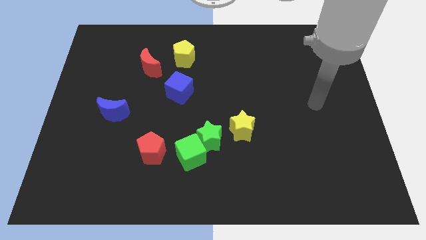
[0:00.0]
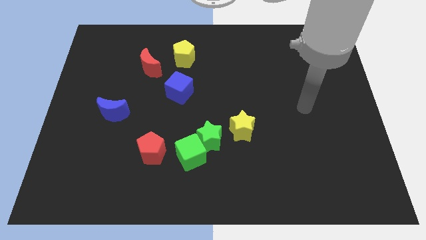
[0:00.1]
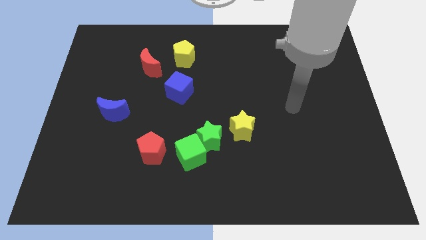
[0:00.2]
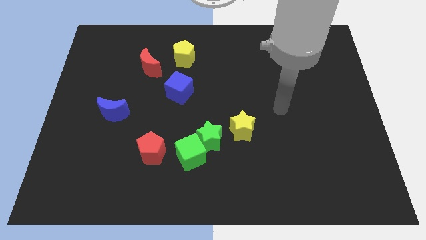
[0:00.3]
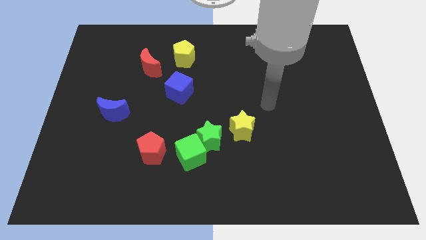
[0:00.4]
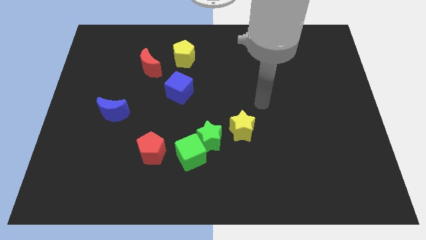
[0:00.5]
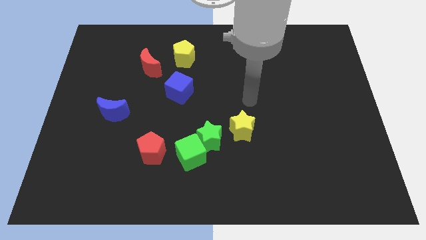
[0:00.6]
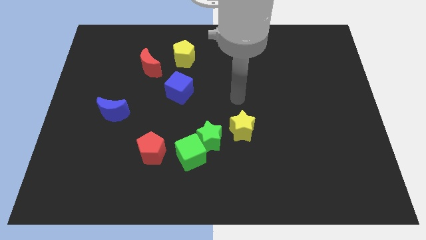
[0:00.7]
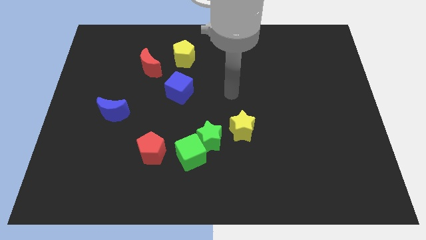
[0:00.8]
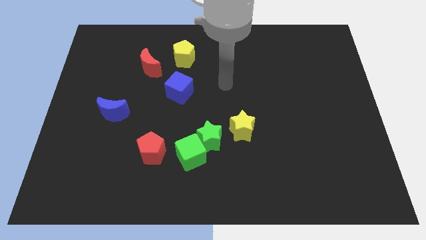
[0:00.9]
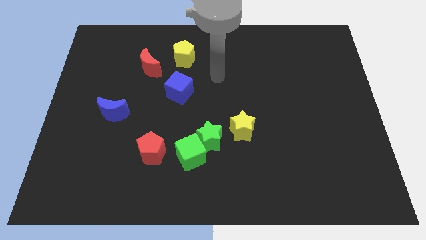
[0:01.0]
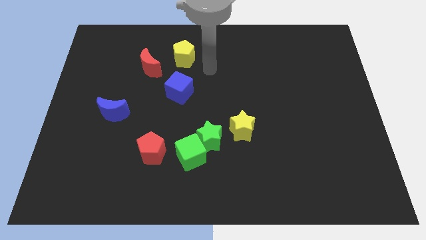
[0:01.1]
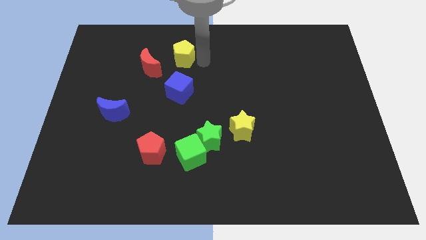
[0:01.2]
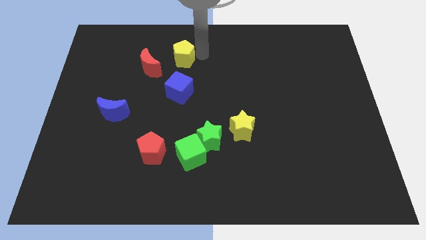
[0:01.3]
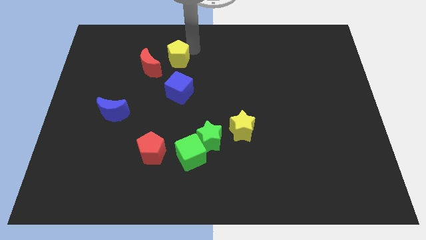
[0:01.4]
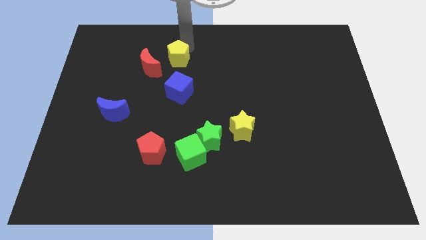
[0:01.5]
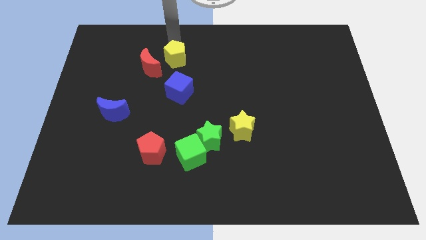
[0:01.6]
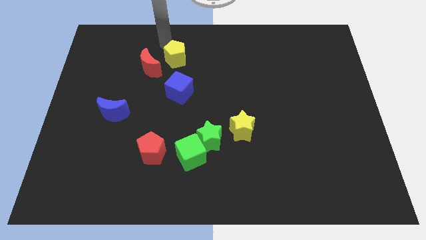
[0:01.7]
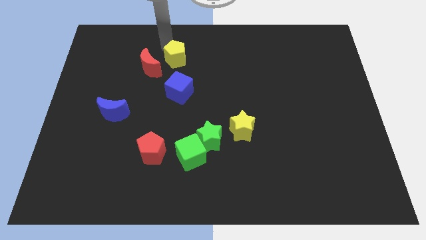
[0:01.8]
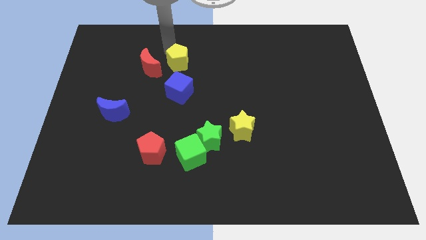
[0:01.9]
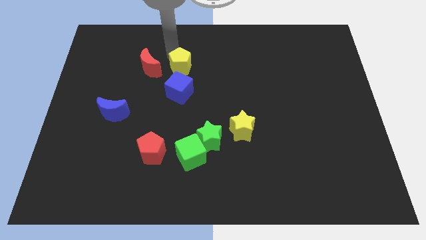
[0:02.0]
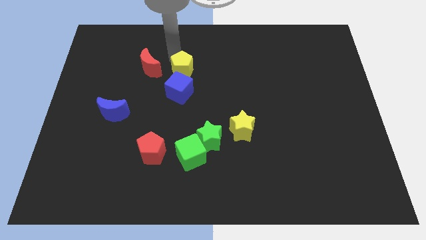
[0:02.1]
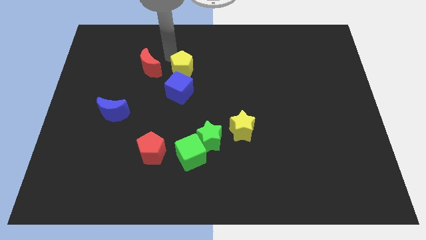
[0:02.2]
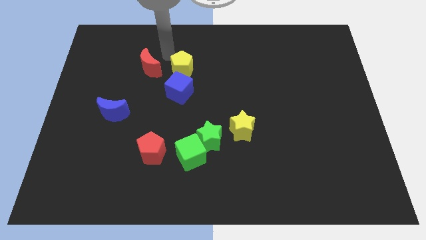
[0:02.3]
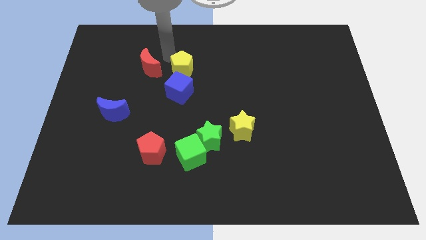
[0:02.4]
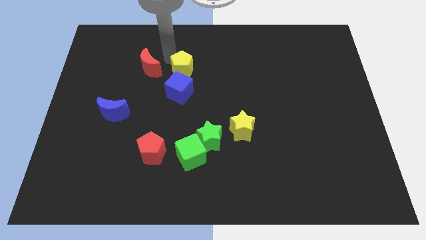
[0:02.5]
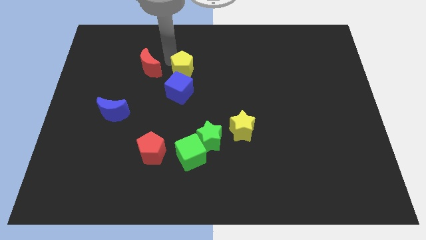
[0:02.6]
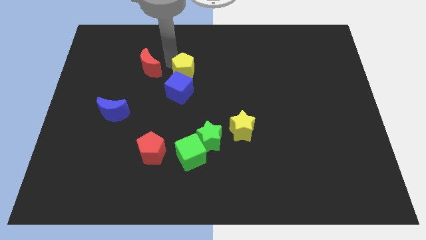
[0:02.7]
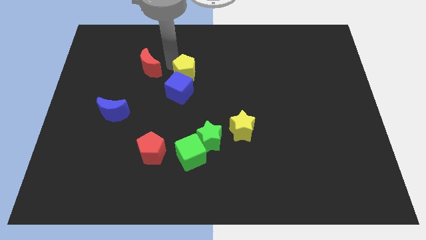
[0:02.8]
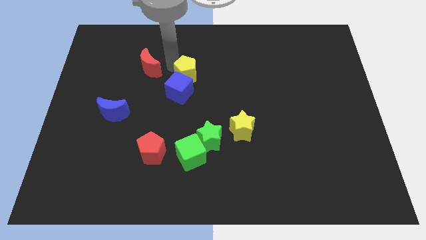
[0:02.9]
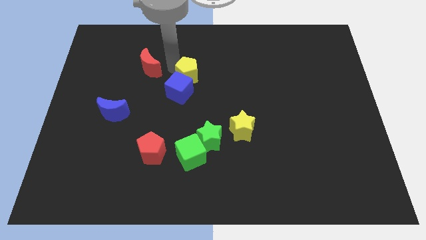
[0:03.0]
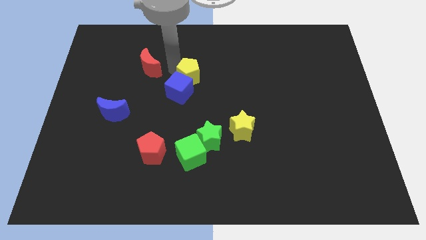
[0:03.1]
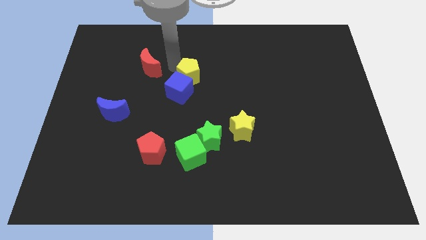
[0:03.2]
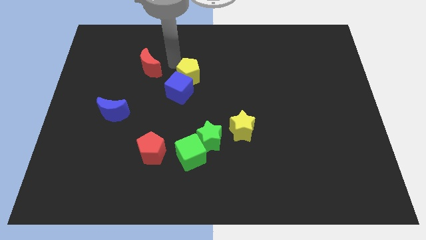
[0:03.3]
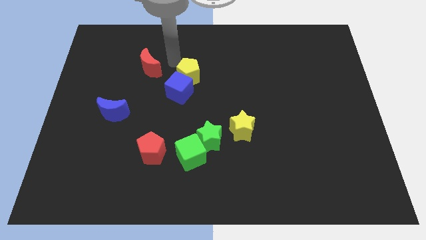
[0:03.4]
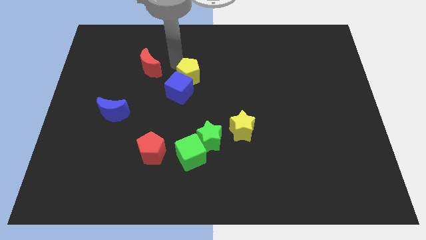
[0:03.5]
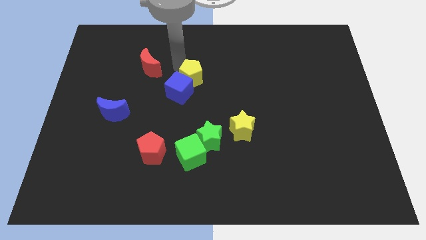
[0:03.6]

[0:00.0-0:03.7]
push the yellow pentagon down slightly

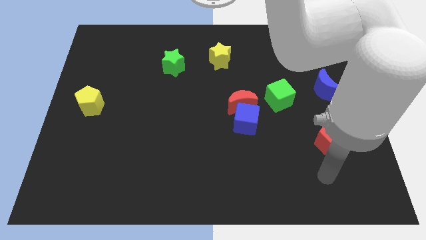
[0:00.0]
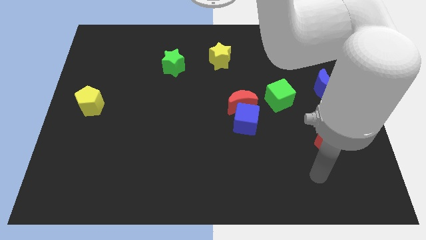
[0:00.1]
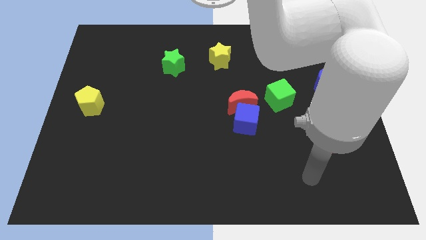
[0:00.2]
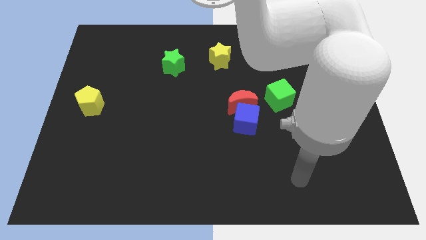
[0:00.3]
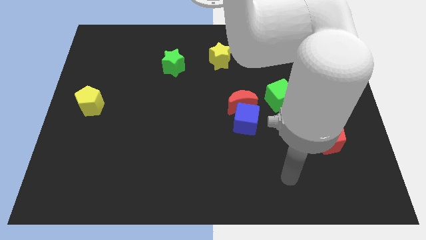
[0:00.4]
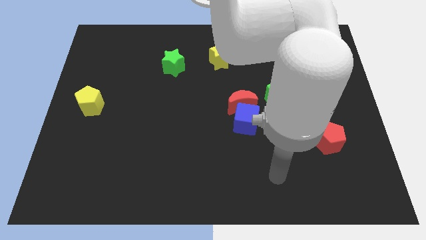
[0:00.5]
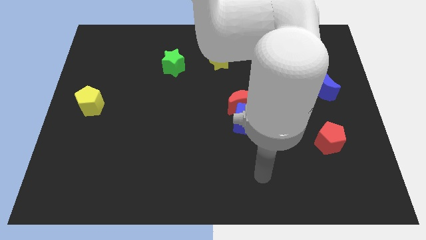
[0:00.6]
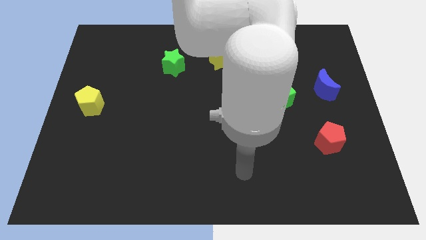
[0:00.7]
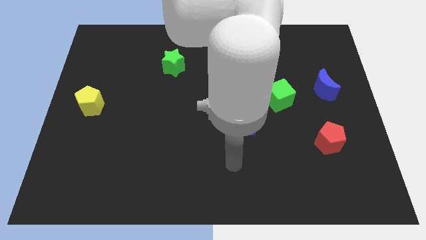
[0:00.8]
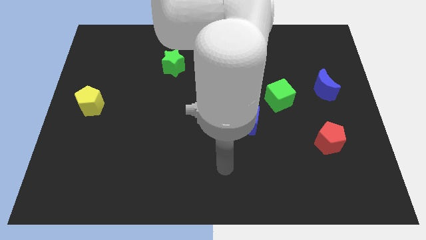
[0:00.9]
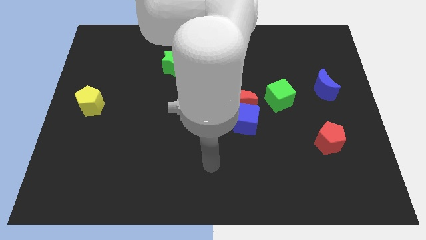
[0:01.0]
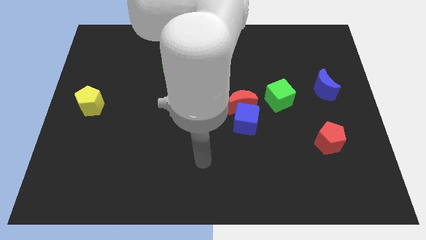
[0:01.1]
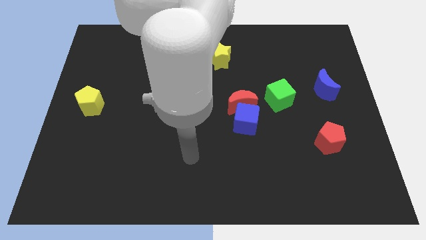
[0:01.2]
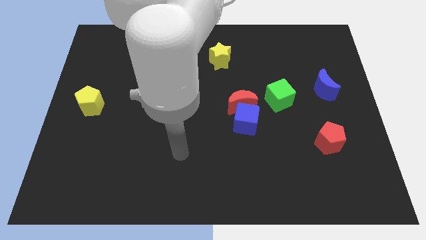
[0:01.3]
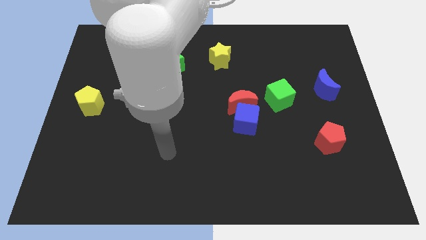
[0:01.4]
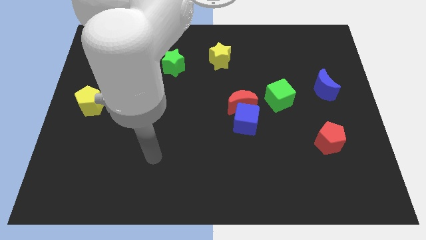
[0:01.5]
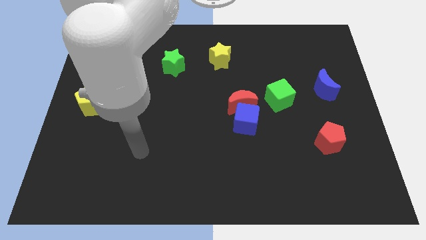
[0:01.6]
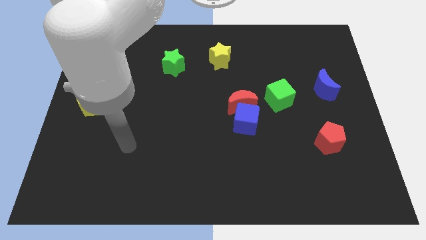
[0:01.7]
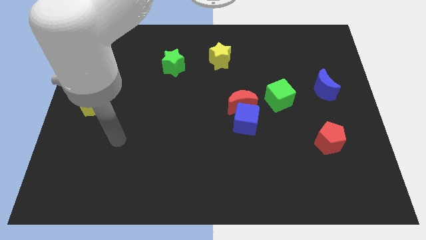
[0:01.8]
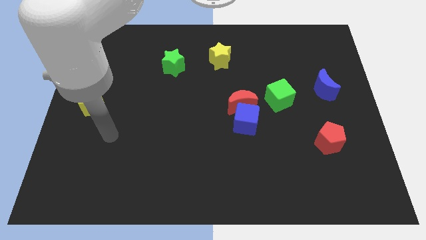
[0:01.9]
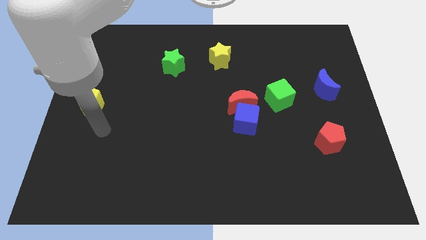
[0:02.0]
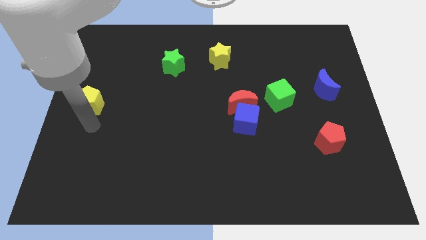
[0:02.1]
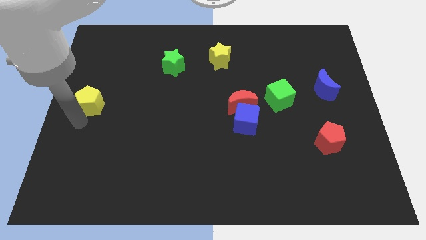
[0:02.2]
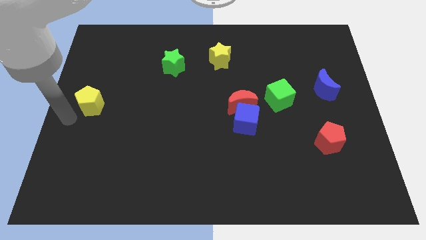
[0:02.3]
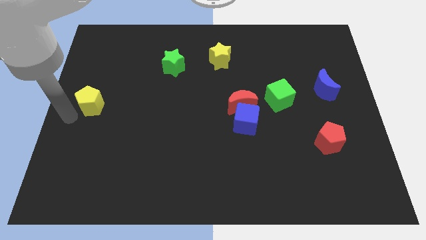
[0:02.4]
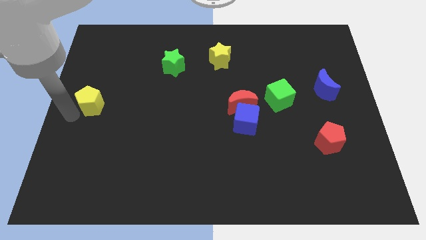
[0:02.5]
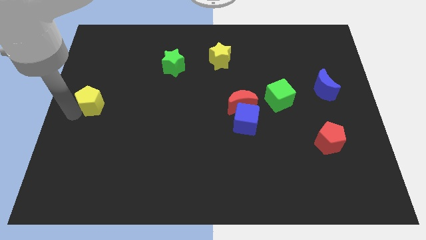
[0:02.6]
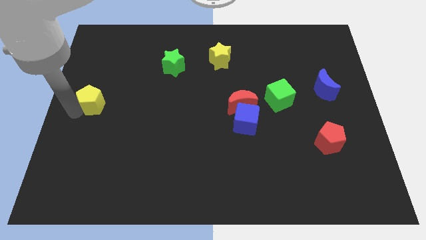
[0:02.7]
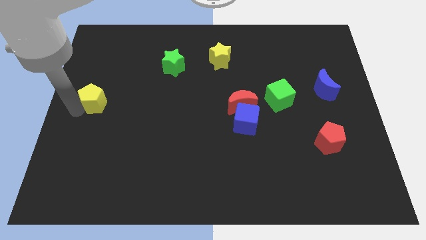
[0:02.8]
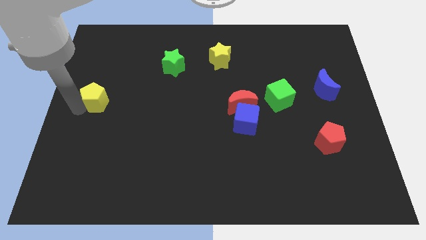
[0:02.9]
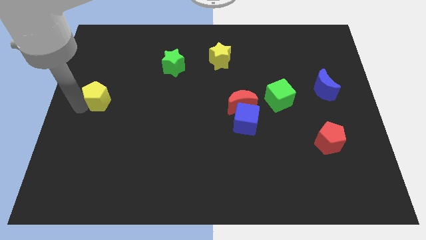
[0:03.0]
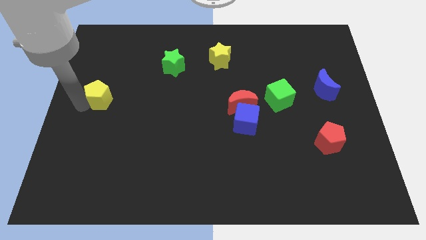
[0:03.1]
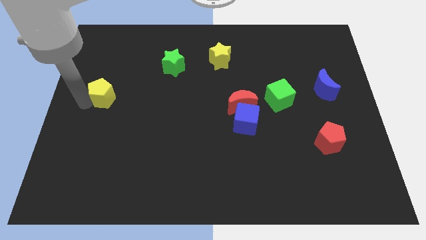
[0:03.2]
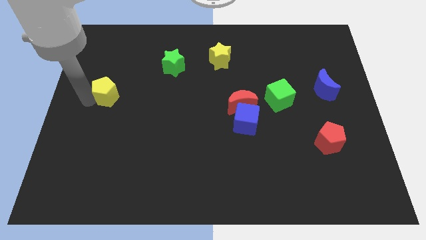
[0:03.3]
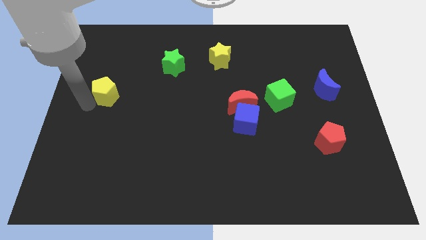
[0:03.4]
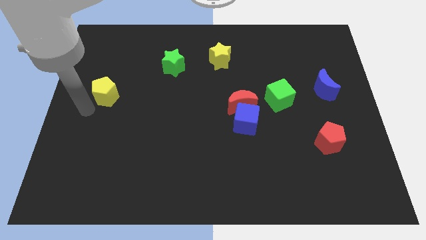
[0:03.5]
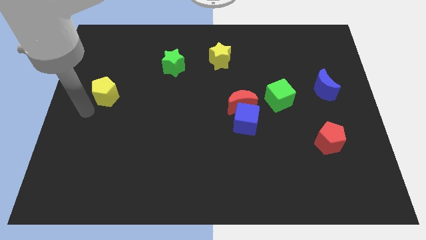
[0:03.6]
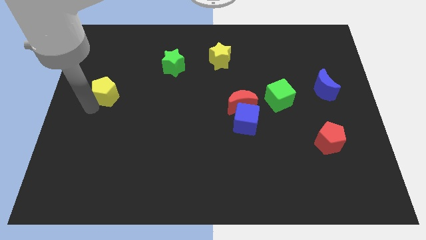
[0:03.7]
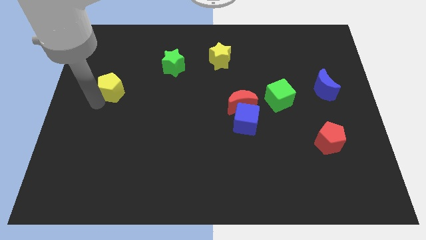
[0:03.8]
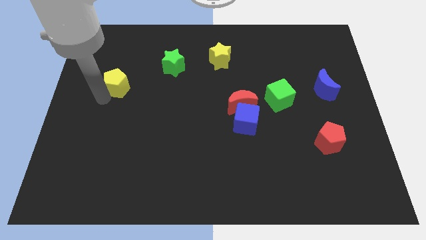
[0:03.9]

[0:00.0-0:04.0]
slightly slide the yellow pentagon diagonally up and right

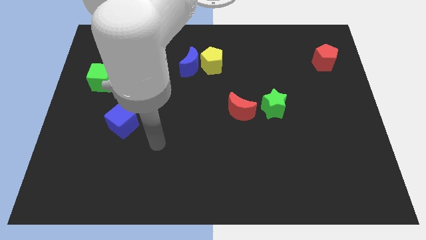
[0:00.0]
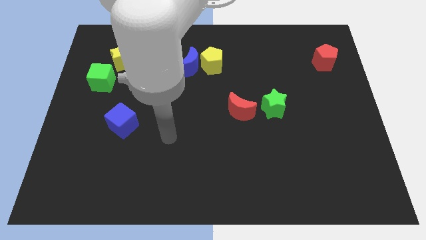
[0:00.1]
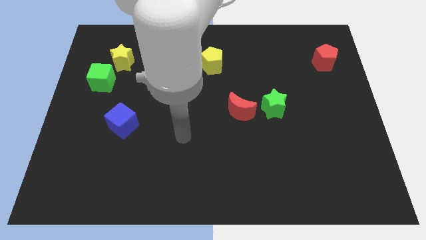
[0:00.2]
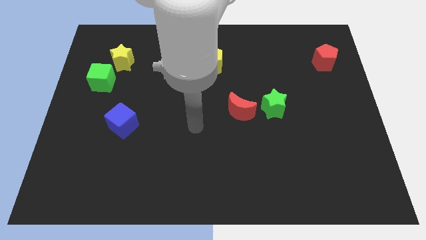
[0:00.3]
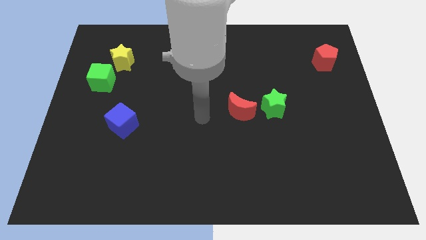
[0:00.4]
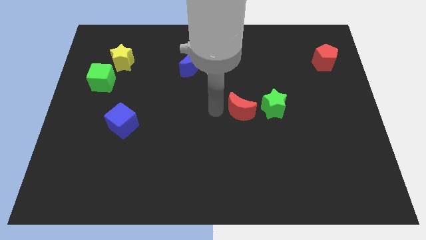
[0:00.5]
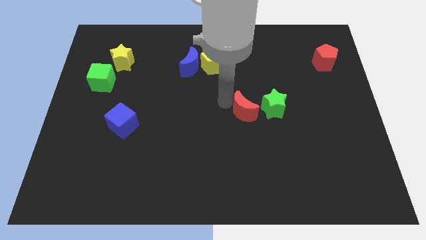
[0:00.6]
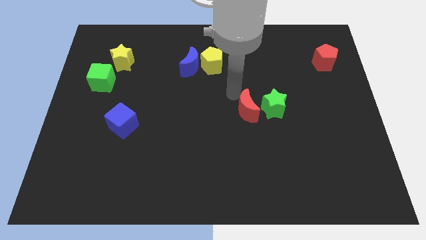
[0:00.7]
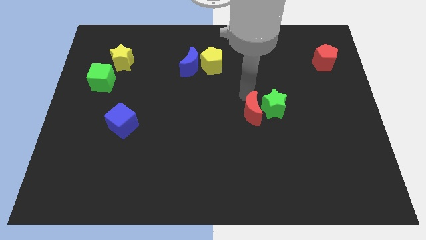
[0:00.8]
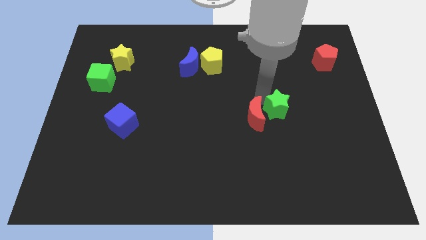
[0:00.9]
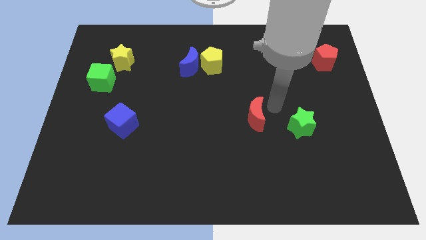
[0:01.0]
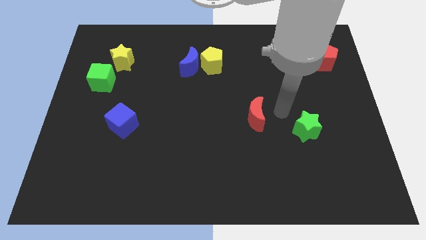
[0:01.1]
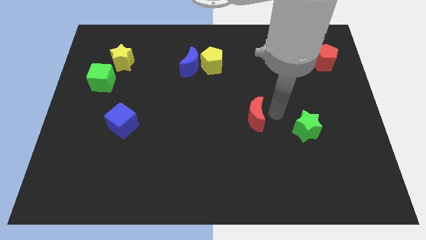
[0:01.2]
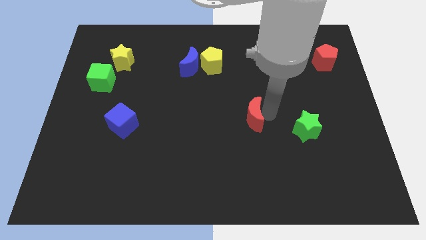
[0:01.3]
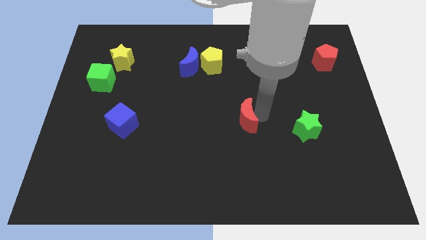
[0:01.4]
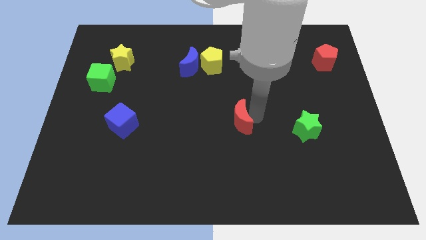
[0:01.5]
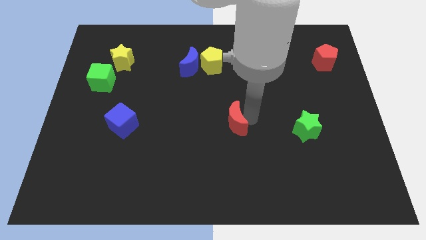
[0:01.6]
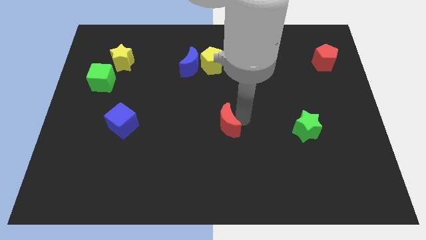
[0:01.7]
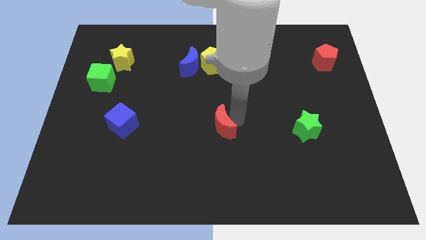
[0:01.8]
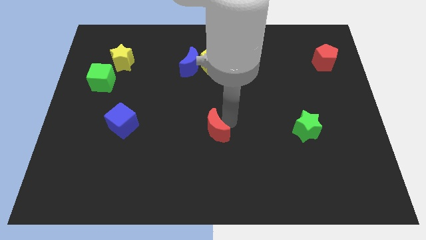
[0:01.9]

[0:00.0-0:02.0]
push the red moon a little bit down and left
